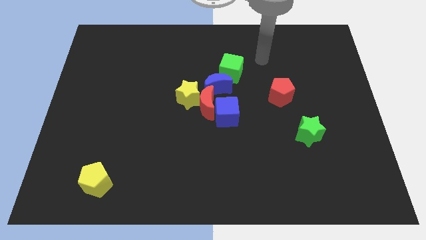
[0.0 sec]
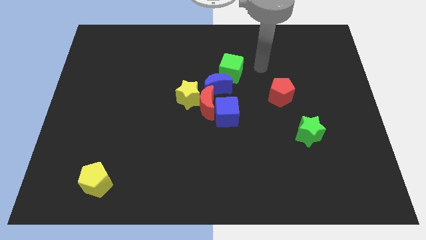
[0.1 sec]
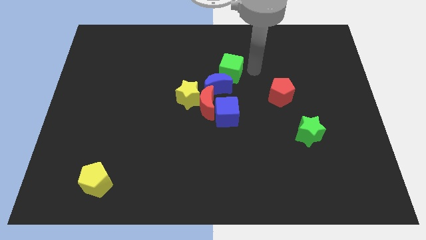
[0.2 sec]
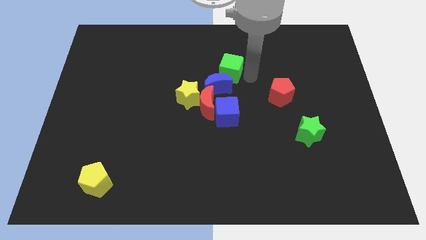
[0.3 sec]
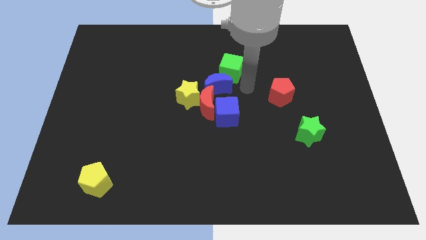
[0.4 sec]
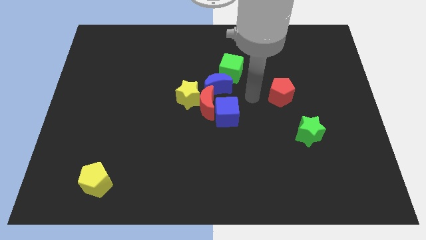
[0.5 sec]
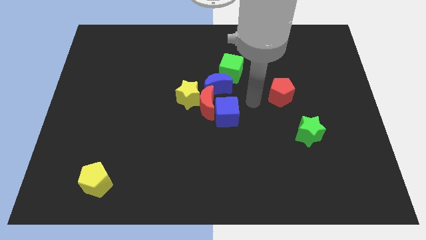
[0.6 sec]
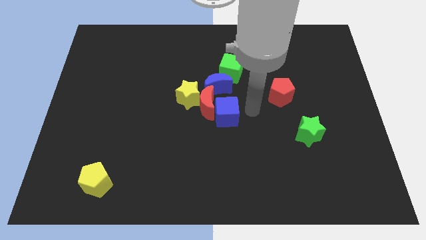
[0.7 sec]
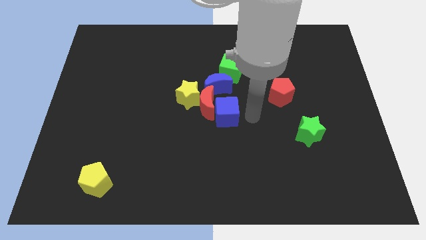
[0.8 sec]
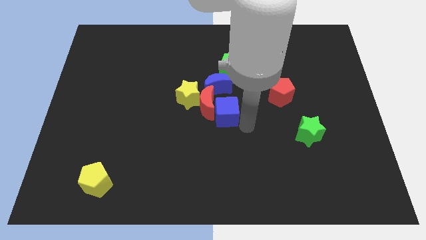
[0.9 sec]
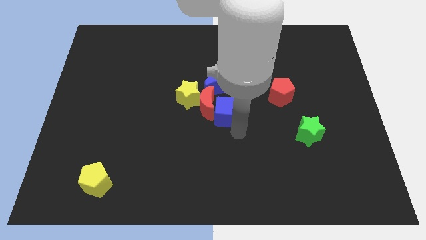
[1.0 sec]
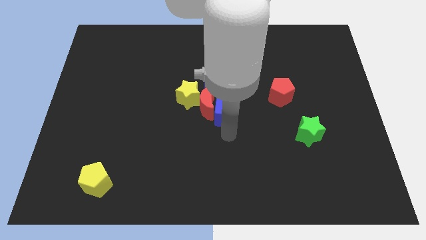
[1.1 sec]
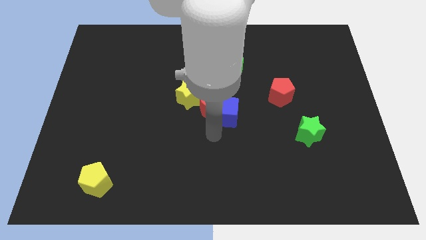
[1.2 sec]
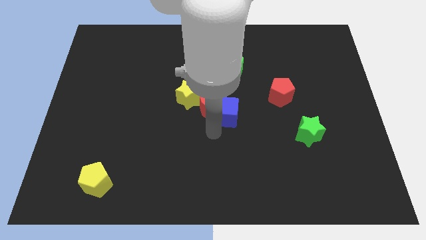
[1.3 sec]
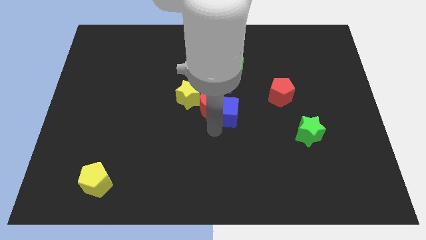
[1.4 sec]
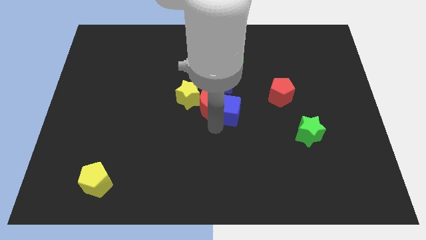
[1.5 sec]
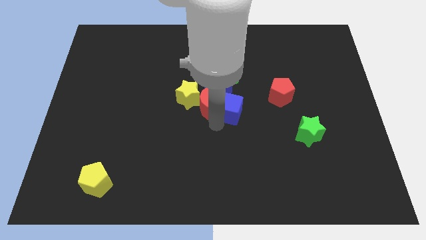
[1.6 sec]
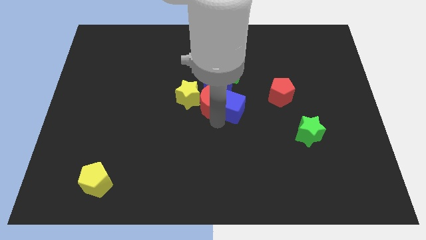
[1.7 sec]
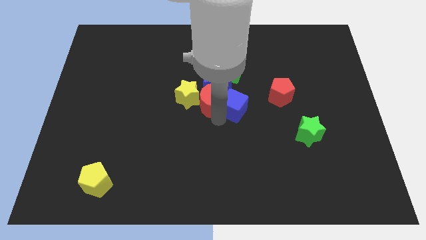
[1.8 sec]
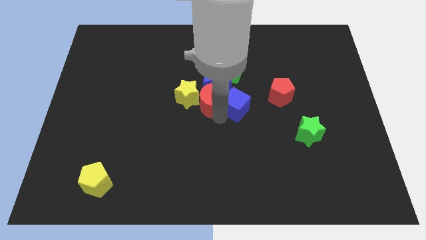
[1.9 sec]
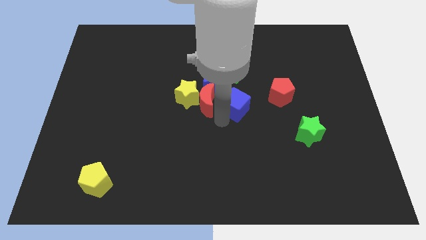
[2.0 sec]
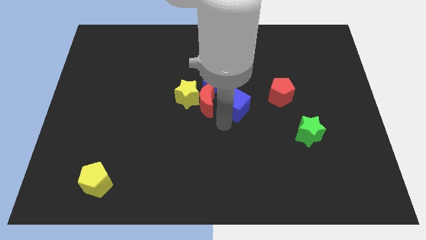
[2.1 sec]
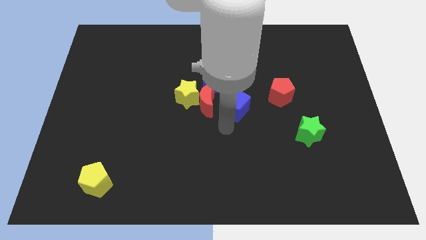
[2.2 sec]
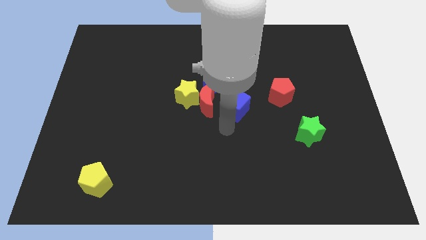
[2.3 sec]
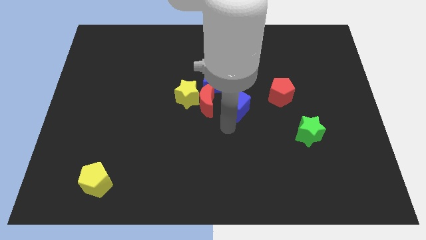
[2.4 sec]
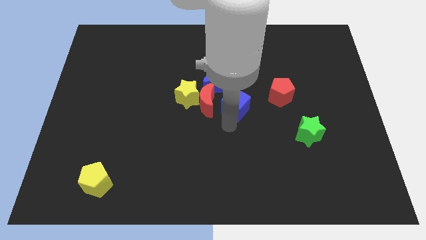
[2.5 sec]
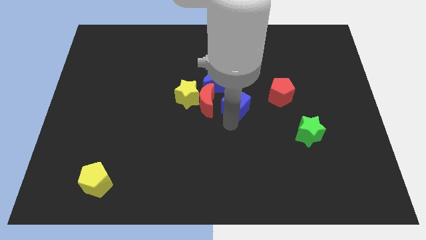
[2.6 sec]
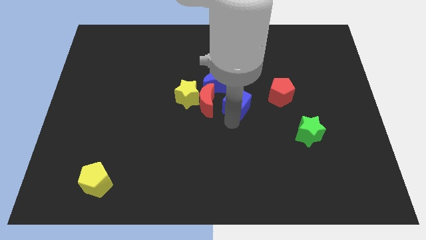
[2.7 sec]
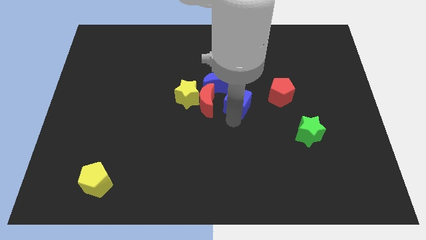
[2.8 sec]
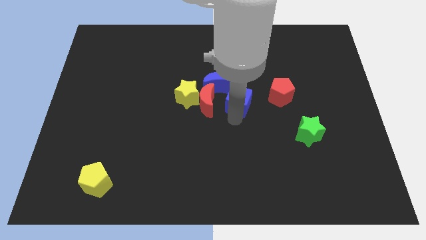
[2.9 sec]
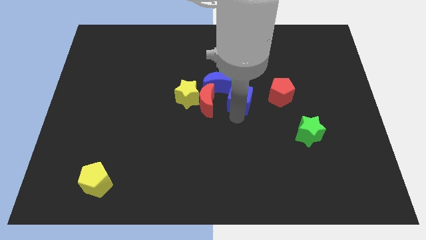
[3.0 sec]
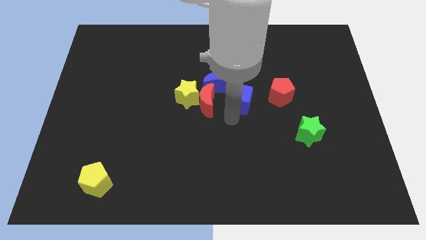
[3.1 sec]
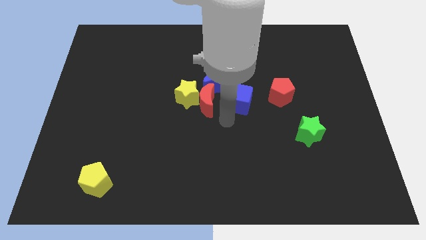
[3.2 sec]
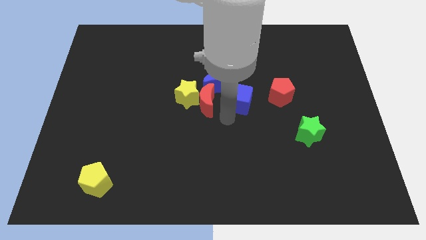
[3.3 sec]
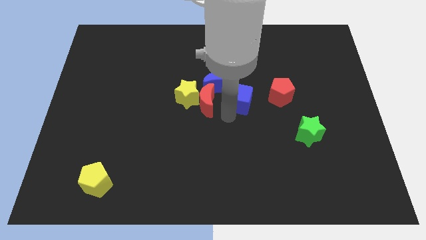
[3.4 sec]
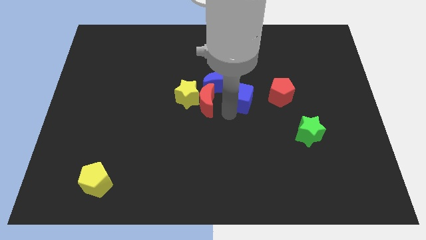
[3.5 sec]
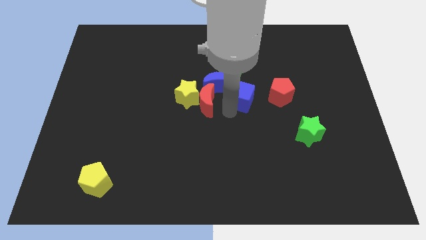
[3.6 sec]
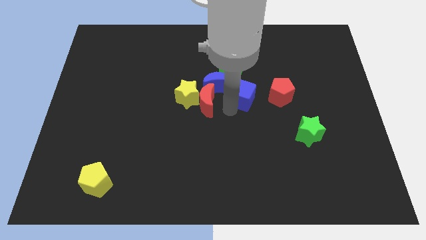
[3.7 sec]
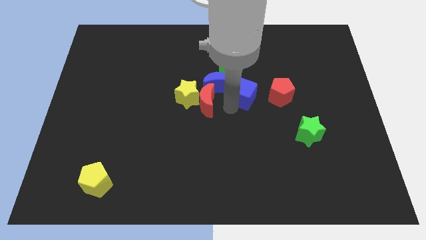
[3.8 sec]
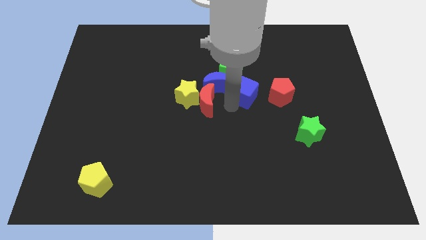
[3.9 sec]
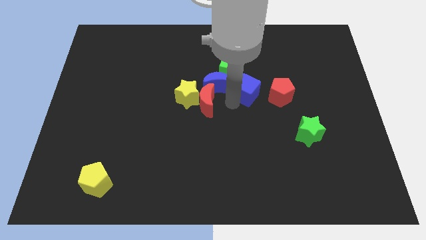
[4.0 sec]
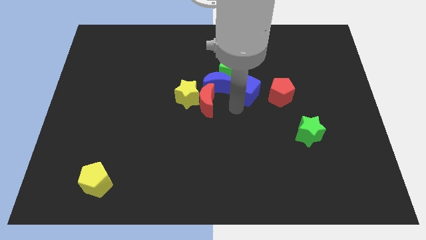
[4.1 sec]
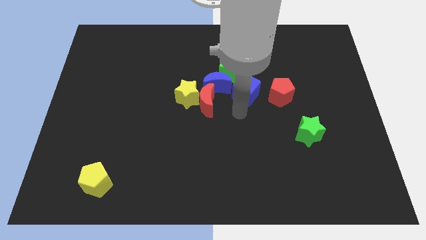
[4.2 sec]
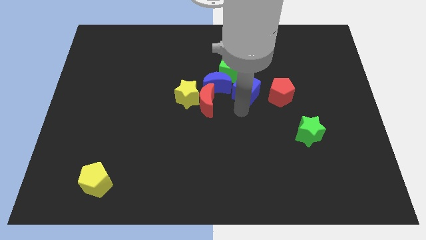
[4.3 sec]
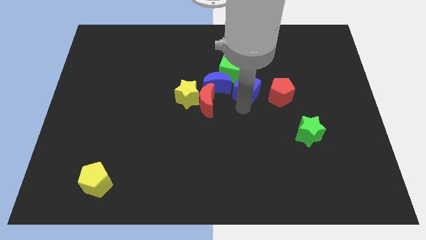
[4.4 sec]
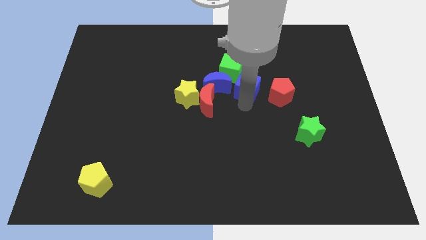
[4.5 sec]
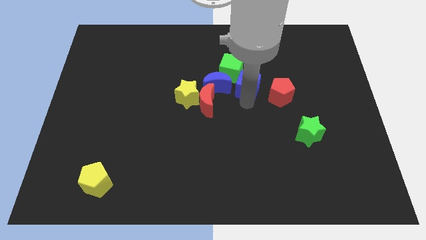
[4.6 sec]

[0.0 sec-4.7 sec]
move the blue cube up slightly

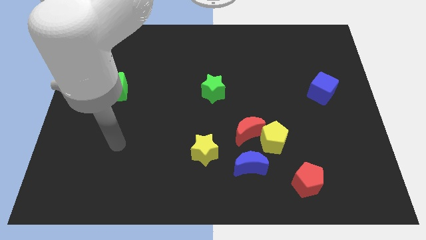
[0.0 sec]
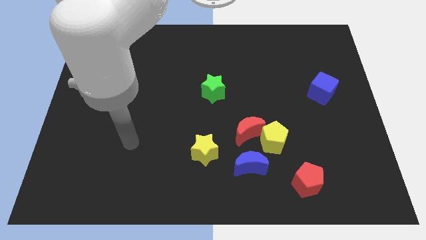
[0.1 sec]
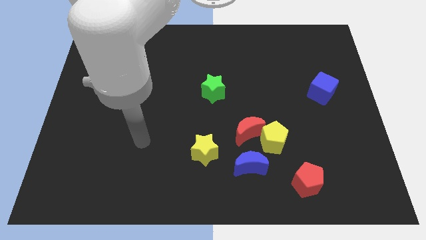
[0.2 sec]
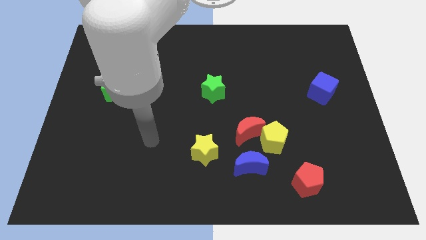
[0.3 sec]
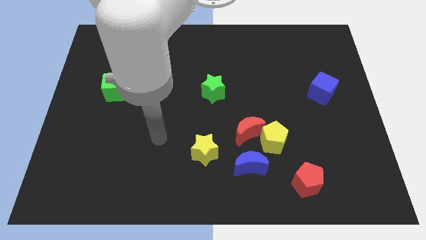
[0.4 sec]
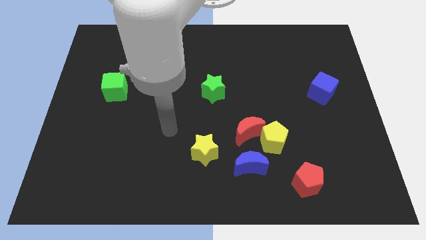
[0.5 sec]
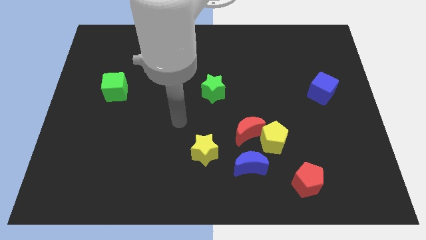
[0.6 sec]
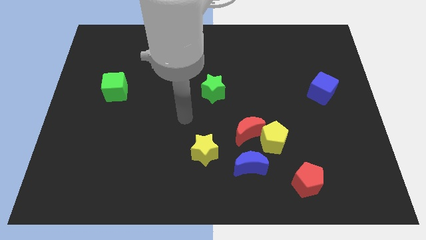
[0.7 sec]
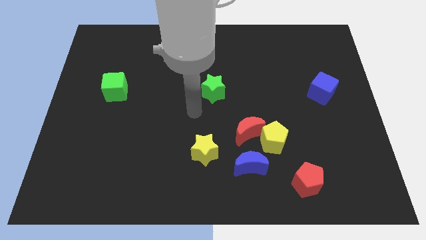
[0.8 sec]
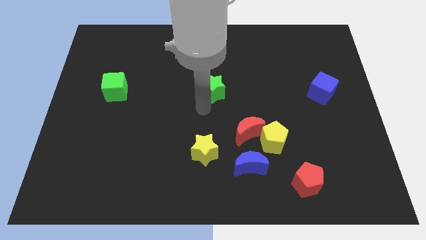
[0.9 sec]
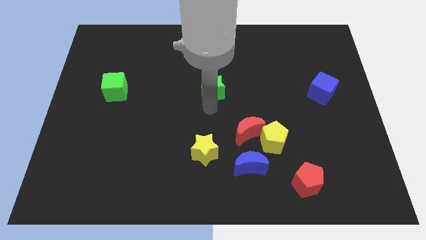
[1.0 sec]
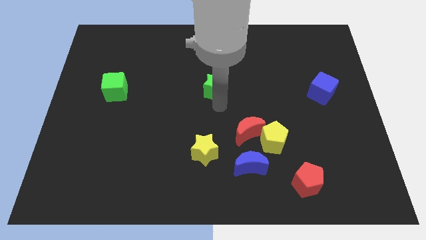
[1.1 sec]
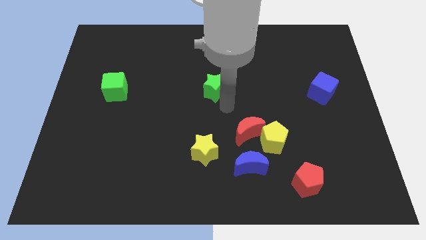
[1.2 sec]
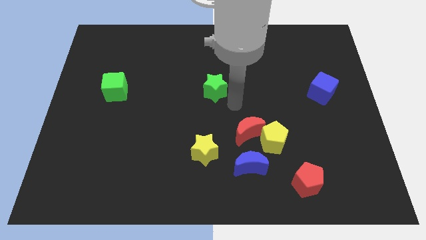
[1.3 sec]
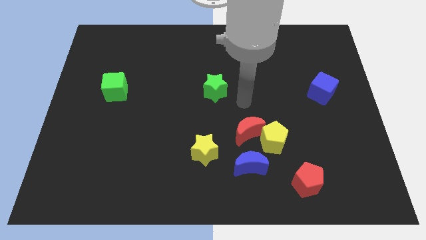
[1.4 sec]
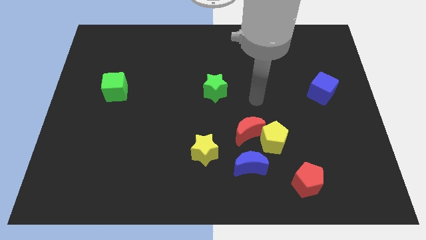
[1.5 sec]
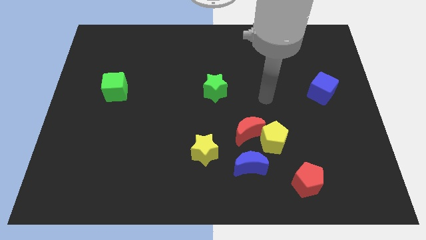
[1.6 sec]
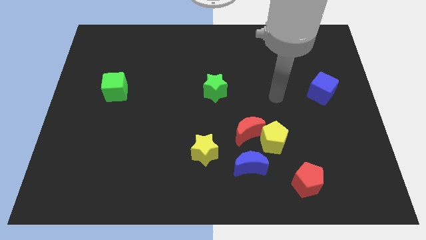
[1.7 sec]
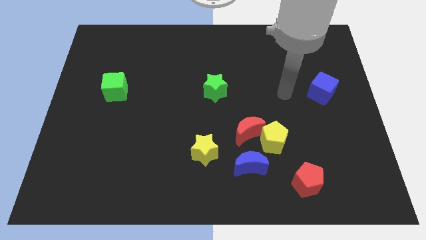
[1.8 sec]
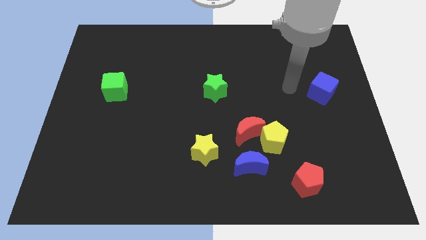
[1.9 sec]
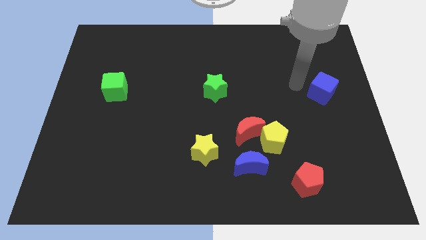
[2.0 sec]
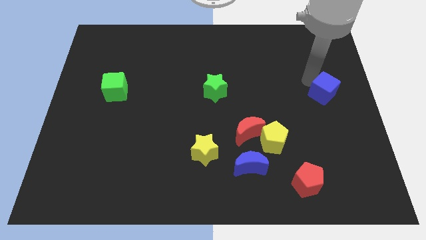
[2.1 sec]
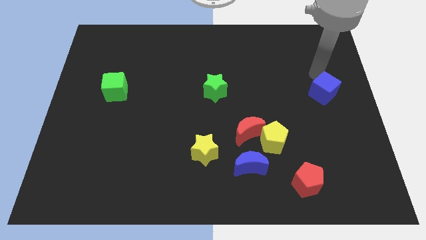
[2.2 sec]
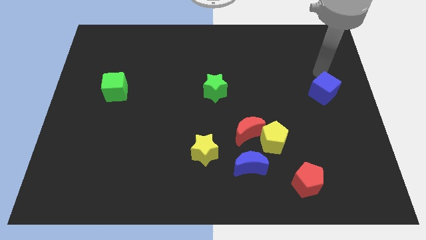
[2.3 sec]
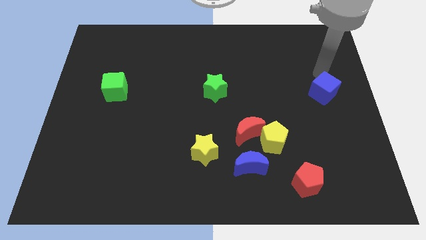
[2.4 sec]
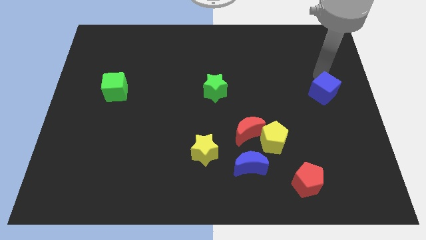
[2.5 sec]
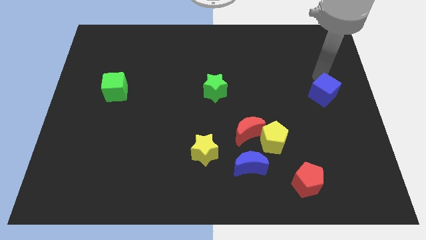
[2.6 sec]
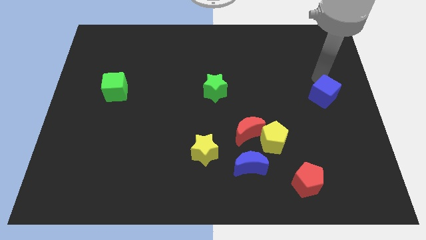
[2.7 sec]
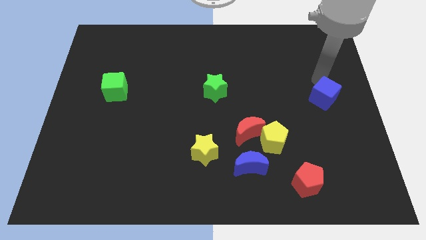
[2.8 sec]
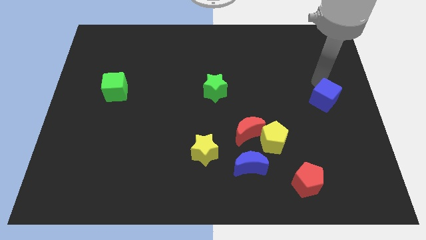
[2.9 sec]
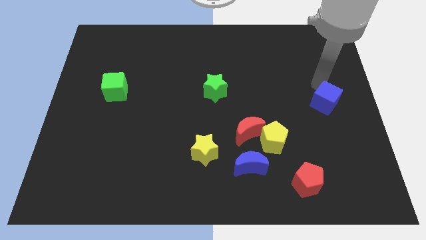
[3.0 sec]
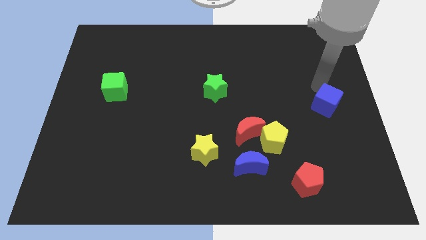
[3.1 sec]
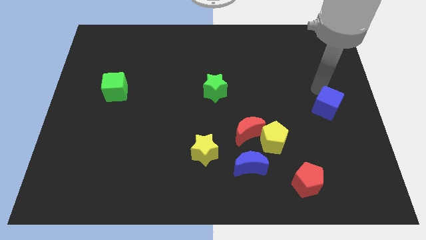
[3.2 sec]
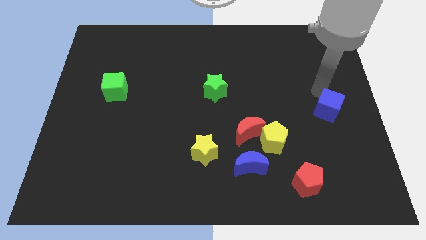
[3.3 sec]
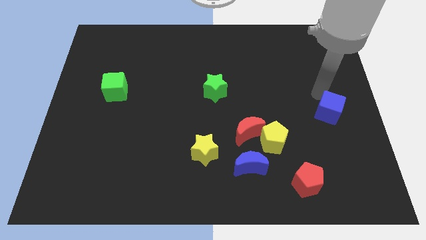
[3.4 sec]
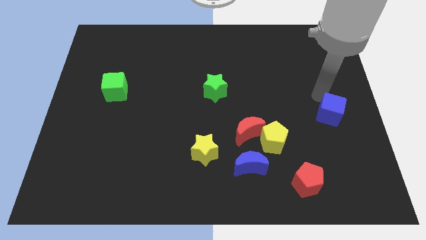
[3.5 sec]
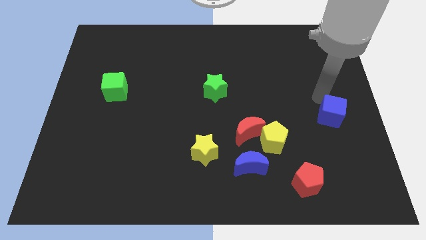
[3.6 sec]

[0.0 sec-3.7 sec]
push the blue cube down a little bit
